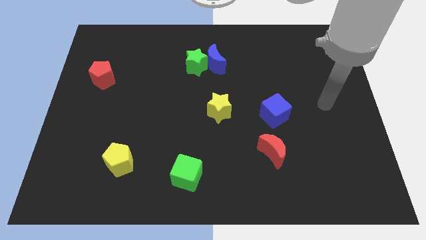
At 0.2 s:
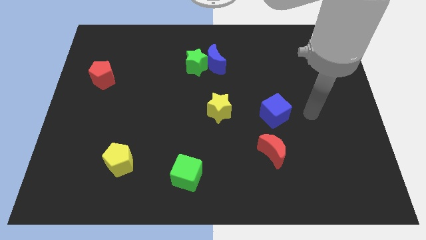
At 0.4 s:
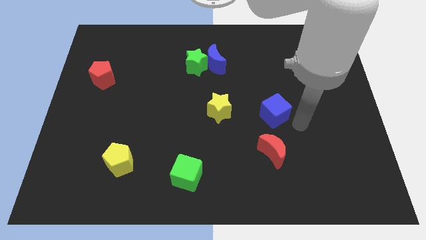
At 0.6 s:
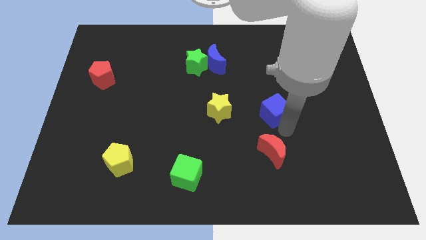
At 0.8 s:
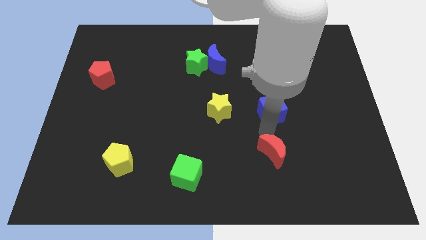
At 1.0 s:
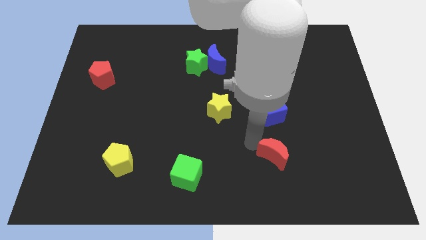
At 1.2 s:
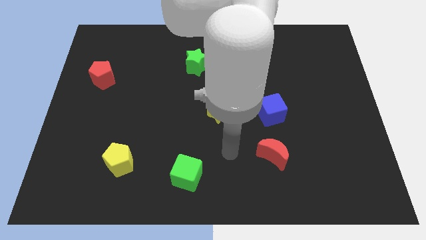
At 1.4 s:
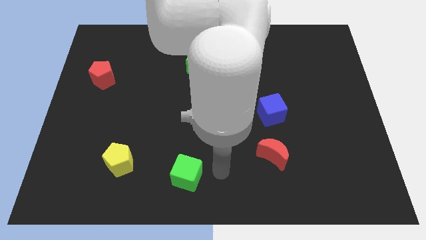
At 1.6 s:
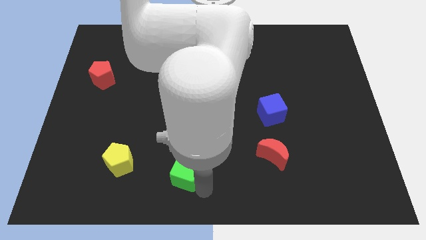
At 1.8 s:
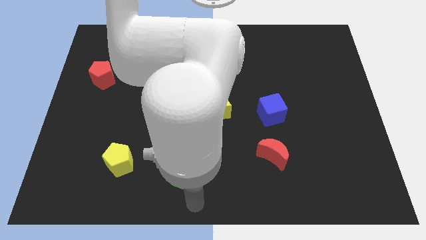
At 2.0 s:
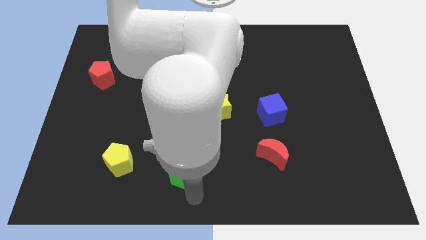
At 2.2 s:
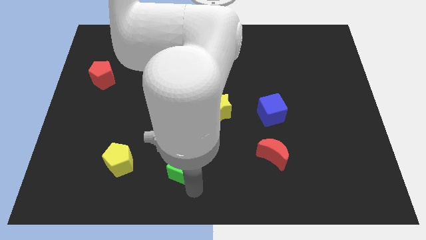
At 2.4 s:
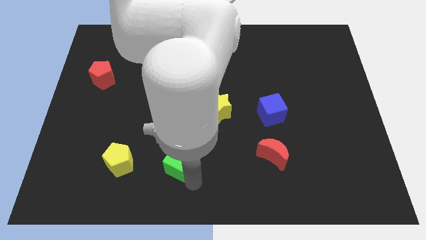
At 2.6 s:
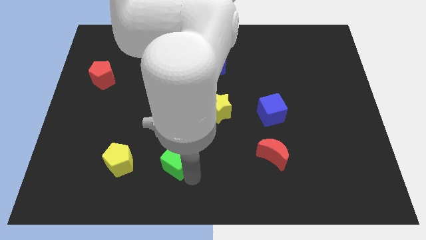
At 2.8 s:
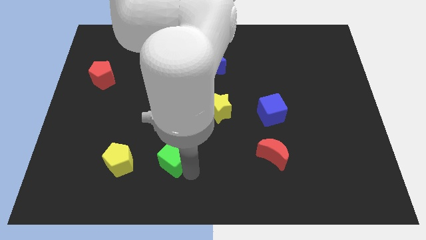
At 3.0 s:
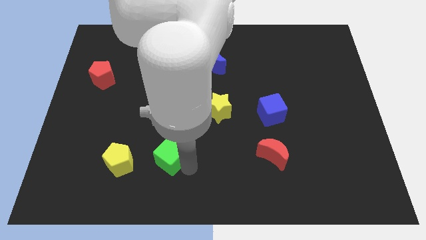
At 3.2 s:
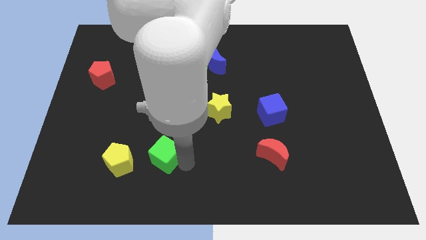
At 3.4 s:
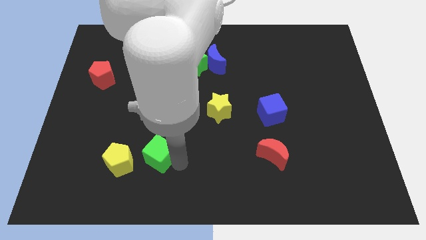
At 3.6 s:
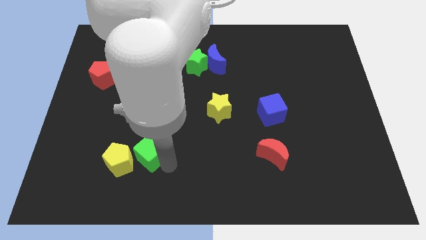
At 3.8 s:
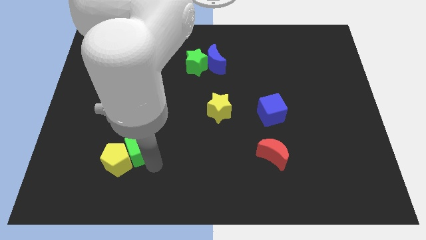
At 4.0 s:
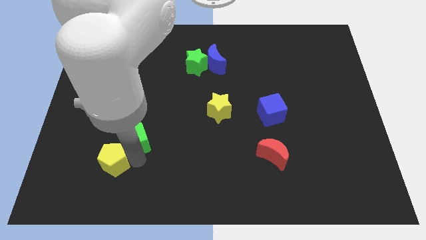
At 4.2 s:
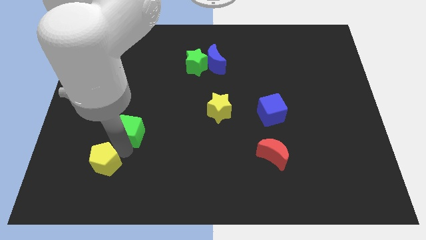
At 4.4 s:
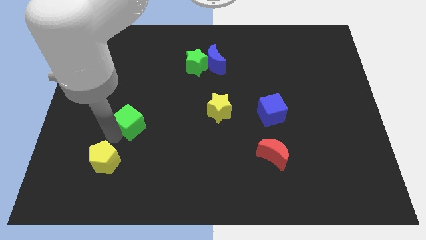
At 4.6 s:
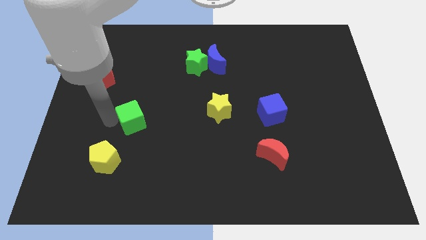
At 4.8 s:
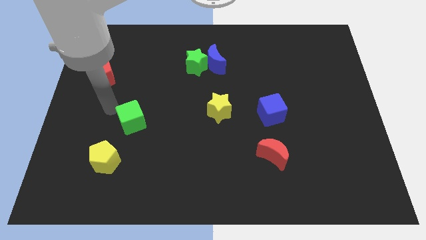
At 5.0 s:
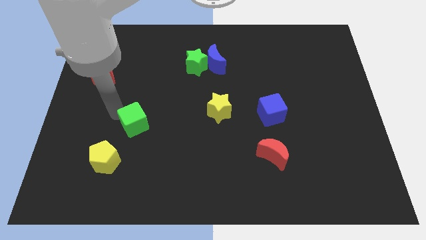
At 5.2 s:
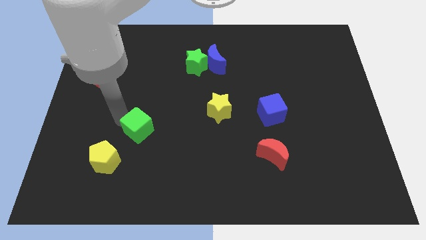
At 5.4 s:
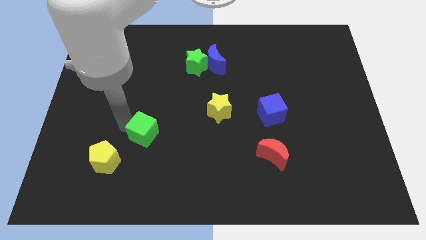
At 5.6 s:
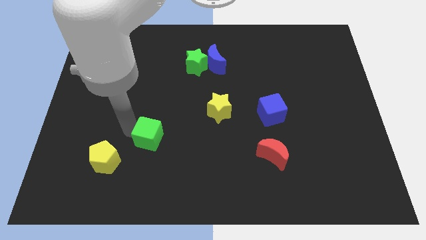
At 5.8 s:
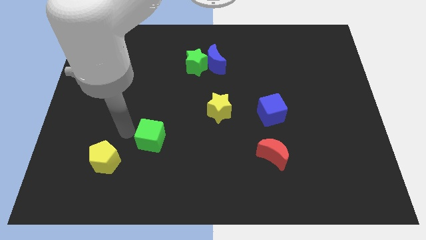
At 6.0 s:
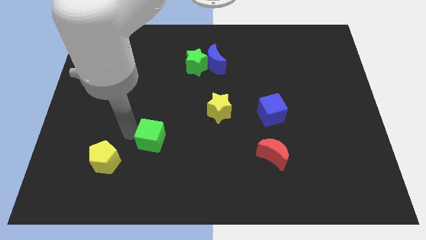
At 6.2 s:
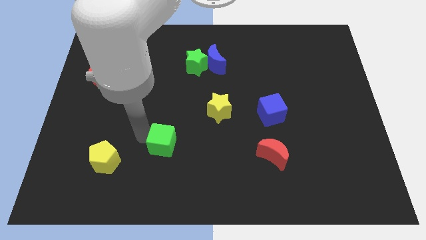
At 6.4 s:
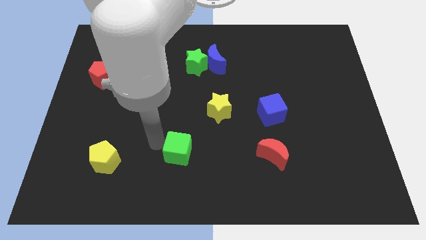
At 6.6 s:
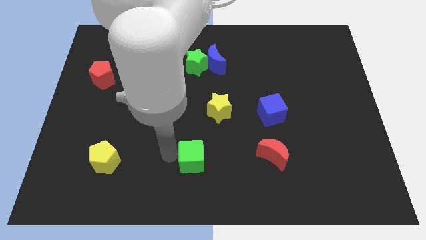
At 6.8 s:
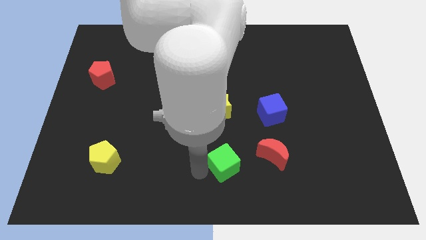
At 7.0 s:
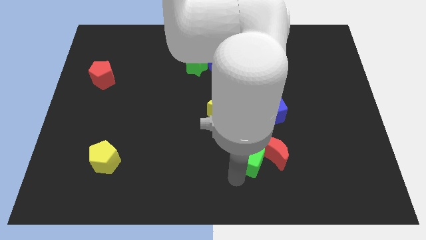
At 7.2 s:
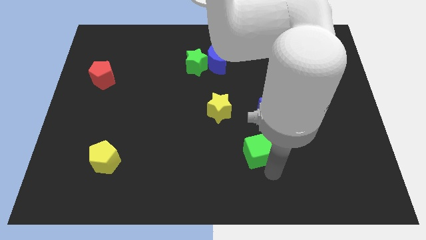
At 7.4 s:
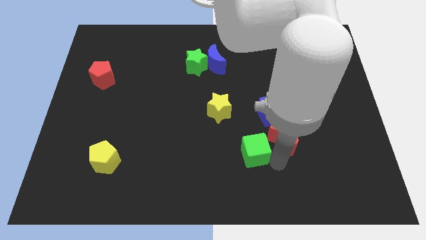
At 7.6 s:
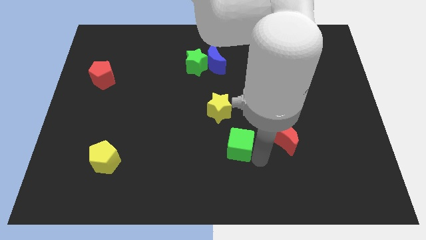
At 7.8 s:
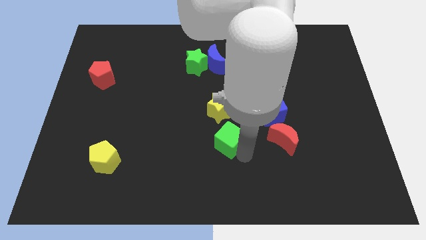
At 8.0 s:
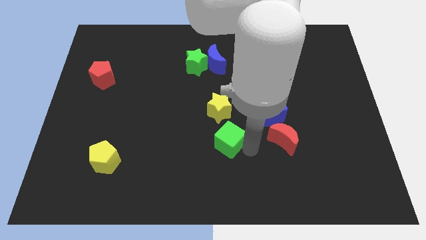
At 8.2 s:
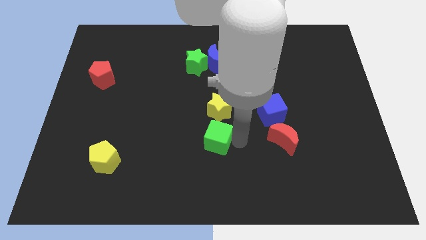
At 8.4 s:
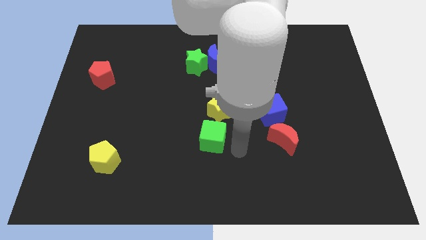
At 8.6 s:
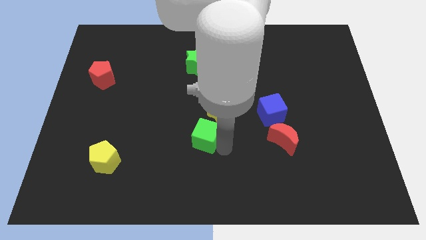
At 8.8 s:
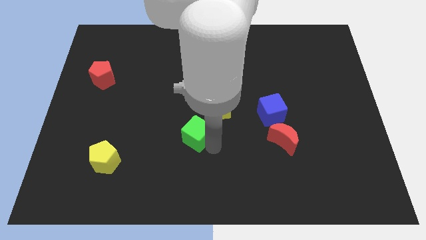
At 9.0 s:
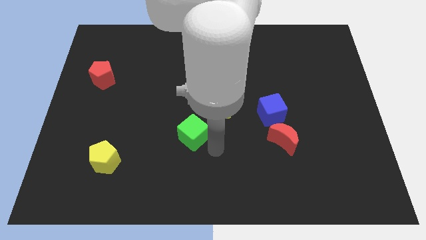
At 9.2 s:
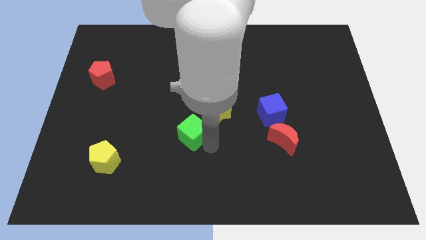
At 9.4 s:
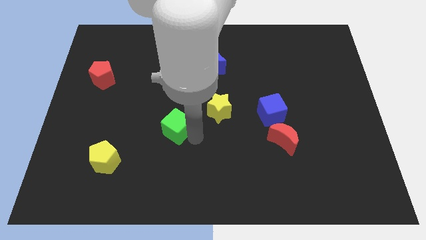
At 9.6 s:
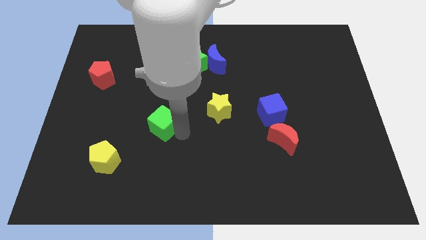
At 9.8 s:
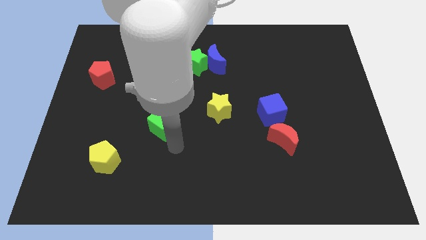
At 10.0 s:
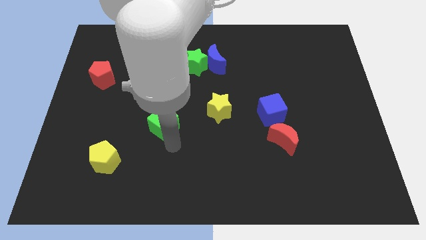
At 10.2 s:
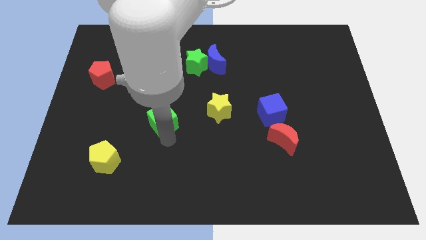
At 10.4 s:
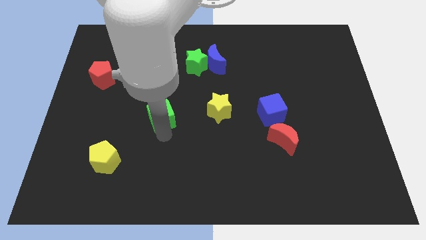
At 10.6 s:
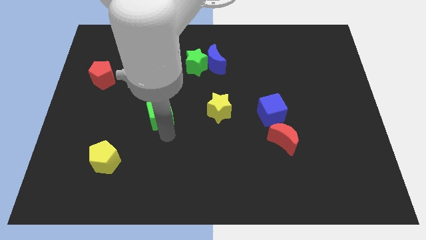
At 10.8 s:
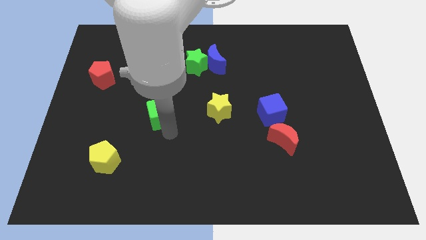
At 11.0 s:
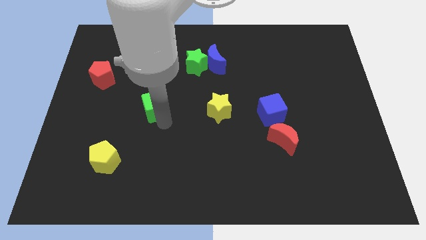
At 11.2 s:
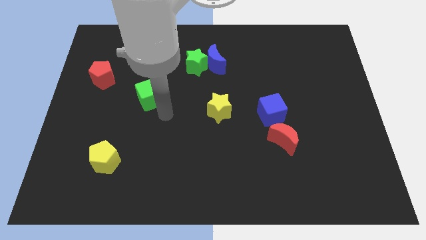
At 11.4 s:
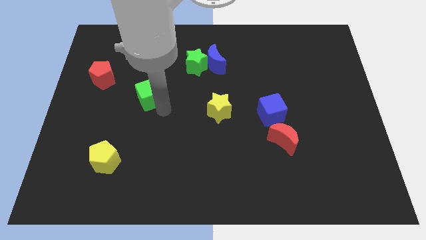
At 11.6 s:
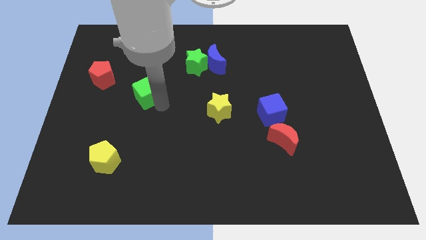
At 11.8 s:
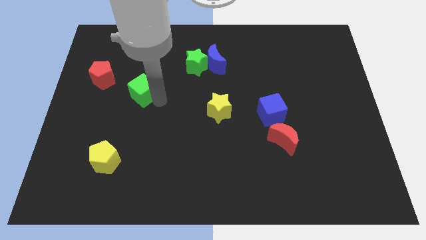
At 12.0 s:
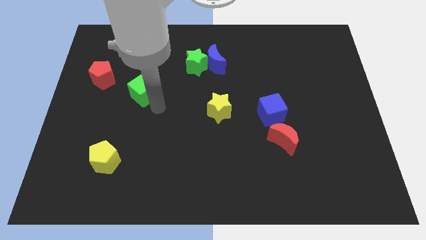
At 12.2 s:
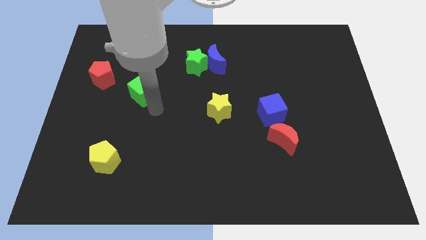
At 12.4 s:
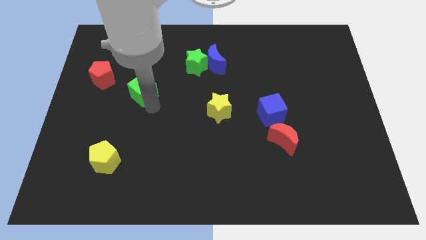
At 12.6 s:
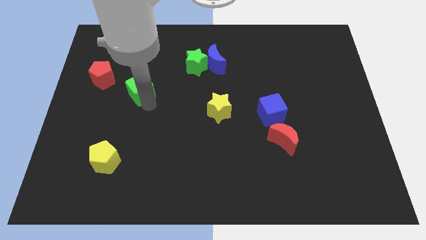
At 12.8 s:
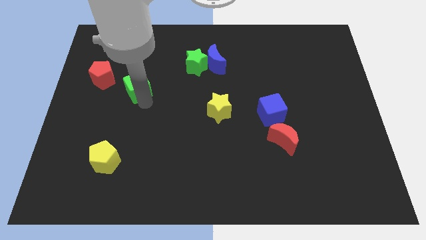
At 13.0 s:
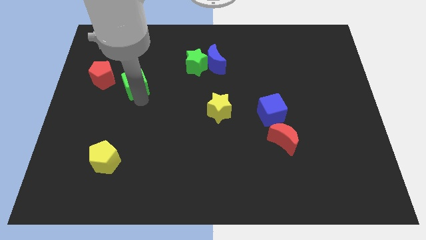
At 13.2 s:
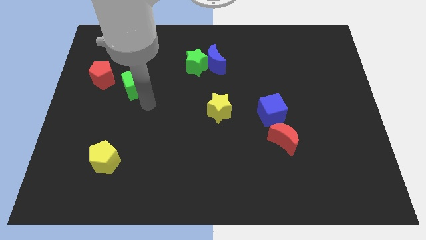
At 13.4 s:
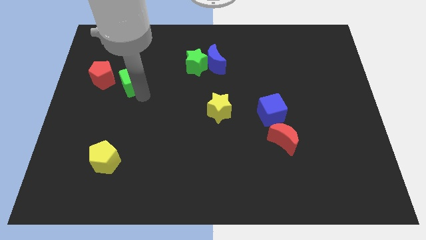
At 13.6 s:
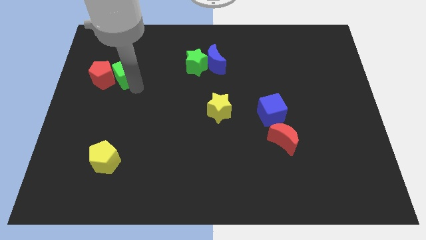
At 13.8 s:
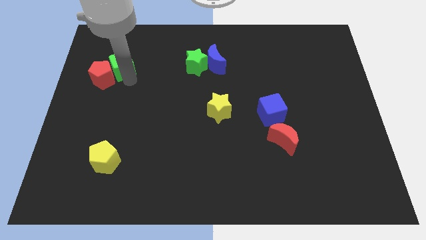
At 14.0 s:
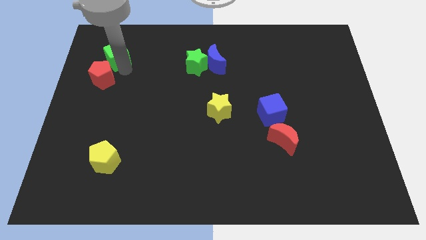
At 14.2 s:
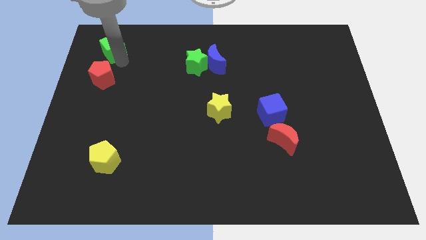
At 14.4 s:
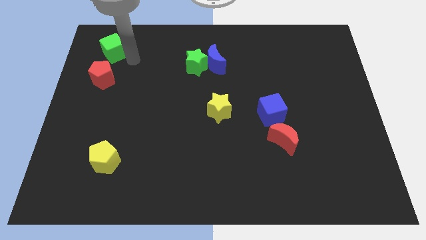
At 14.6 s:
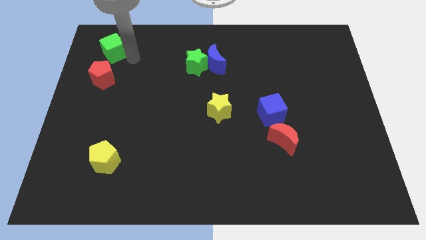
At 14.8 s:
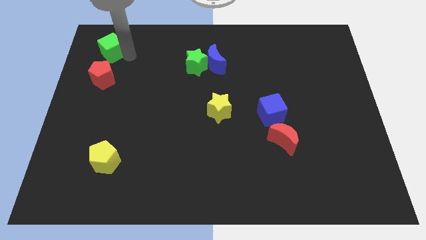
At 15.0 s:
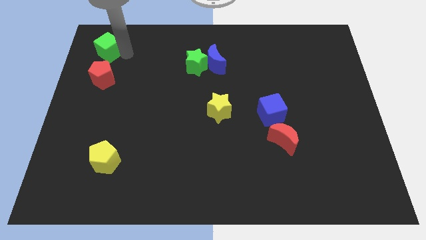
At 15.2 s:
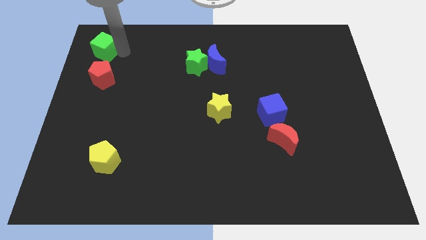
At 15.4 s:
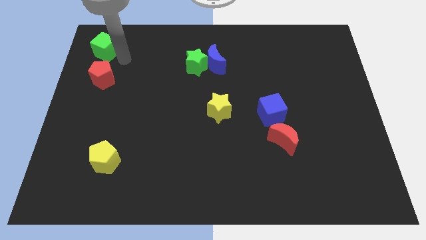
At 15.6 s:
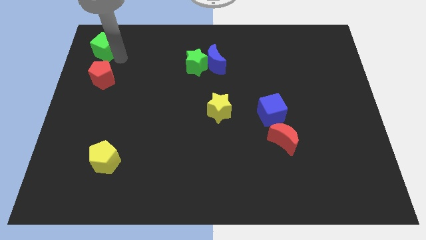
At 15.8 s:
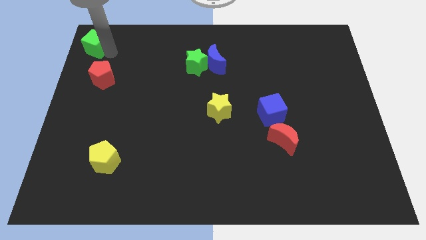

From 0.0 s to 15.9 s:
move the green cube to the upper left corner
